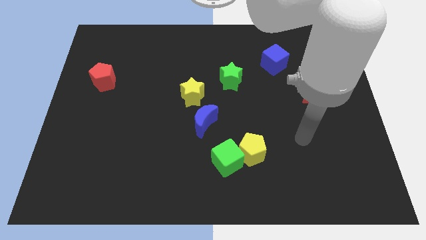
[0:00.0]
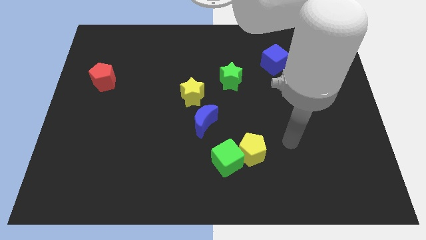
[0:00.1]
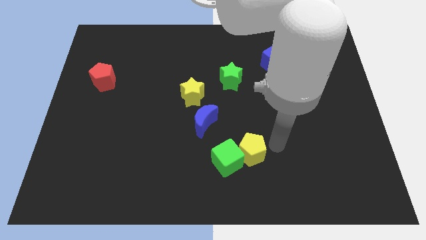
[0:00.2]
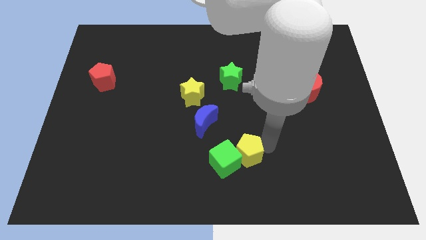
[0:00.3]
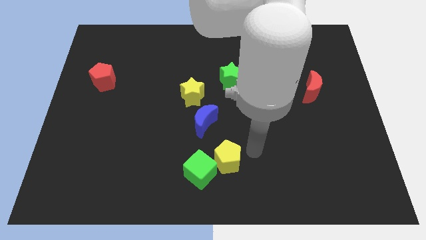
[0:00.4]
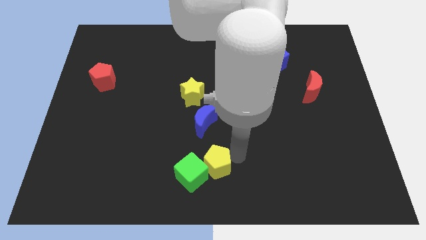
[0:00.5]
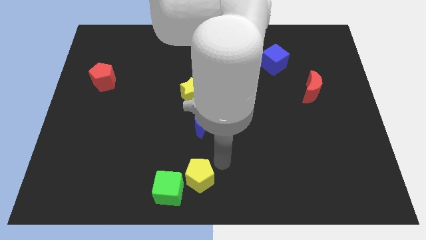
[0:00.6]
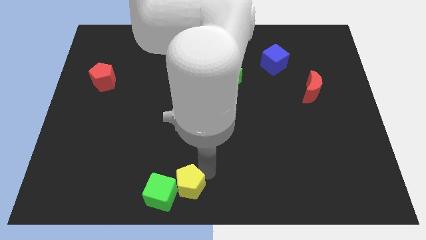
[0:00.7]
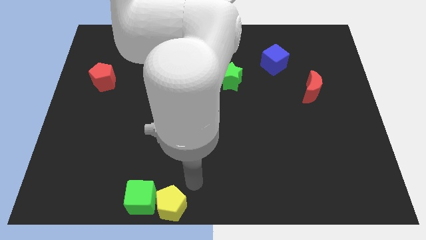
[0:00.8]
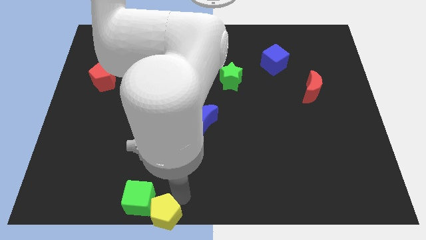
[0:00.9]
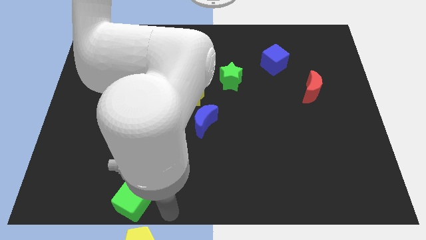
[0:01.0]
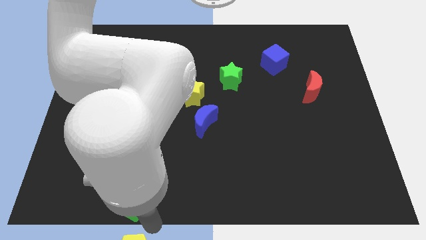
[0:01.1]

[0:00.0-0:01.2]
pull the green cube apart from the yellow pentagon

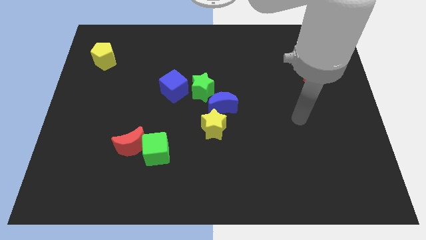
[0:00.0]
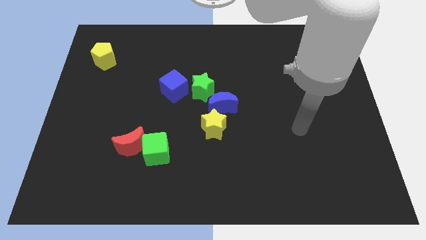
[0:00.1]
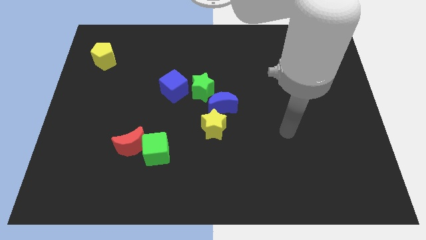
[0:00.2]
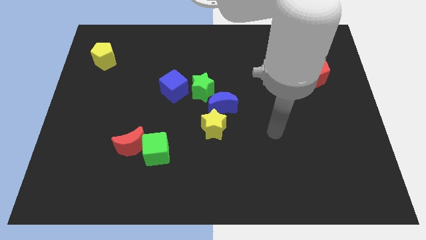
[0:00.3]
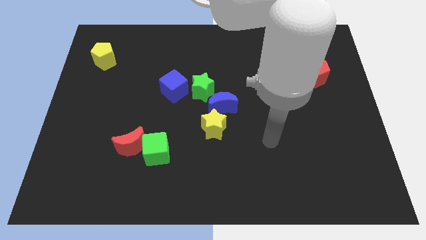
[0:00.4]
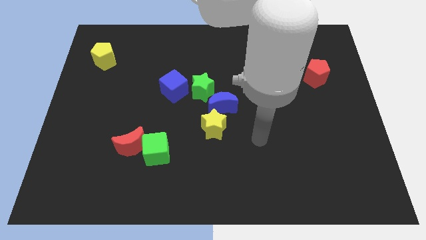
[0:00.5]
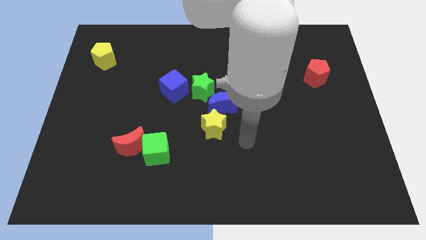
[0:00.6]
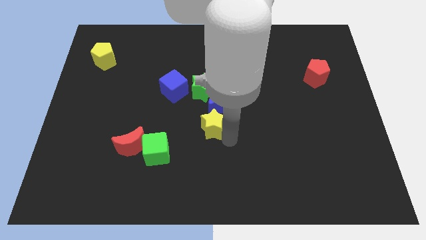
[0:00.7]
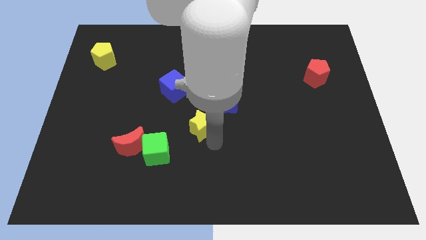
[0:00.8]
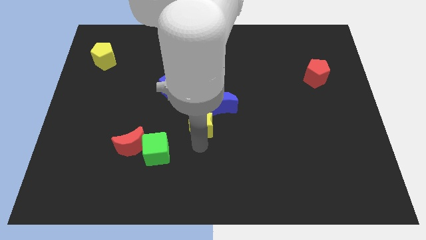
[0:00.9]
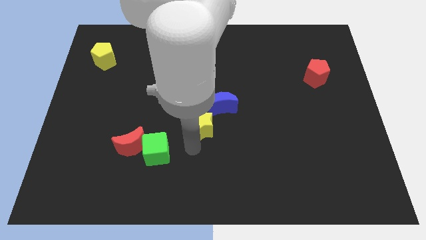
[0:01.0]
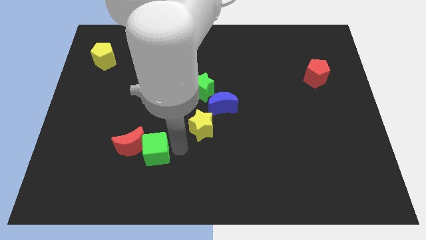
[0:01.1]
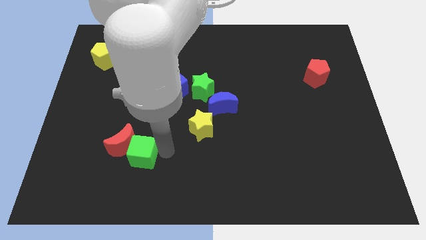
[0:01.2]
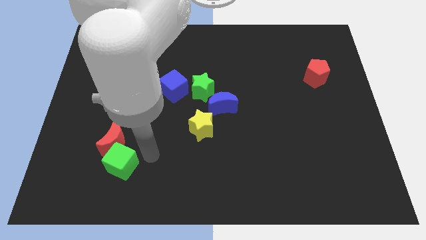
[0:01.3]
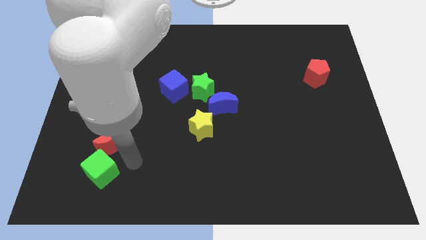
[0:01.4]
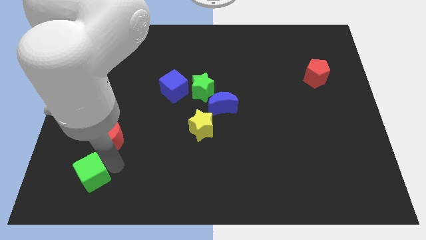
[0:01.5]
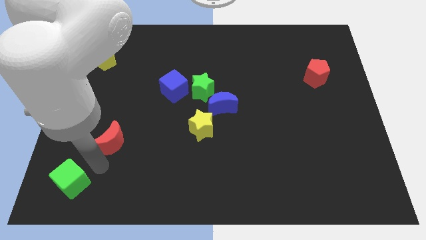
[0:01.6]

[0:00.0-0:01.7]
pull the red moon apart from the green cube

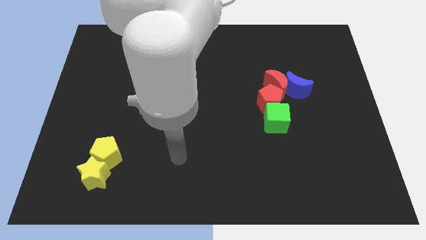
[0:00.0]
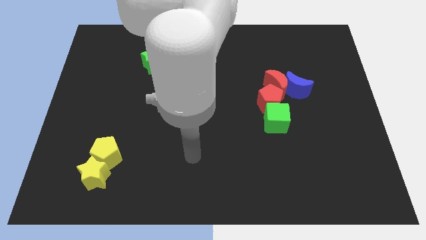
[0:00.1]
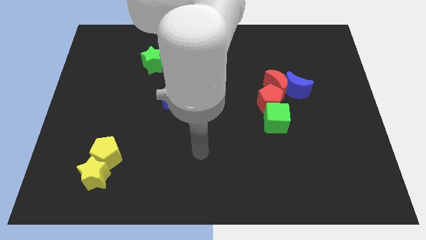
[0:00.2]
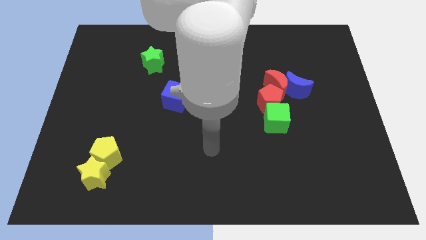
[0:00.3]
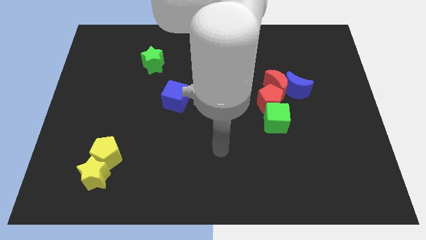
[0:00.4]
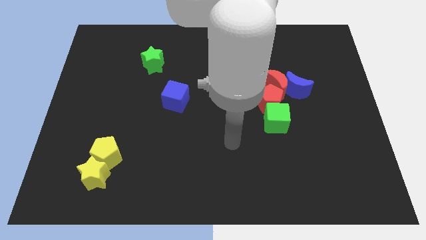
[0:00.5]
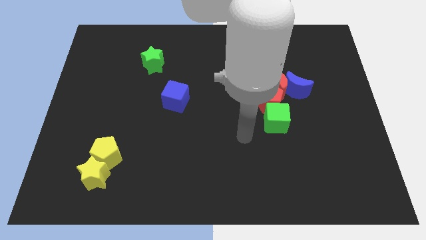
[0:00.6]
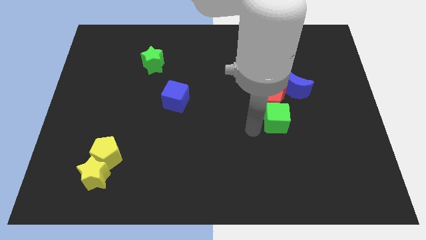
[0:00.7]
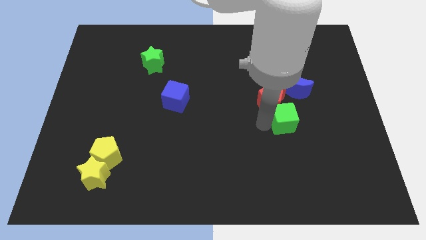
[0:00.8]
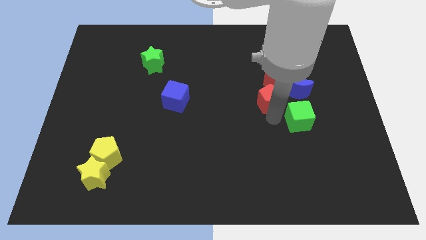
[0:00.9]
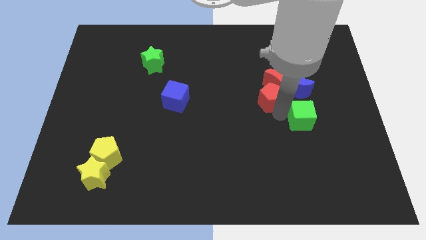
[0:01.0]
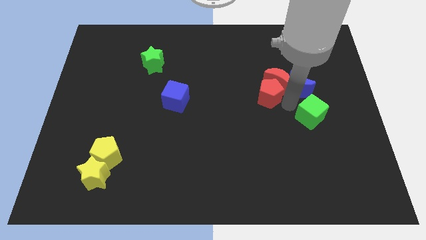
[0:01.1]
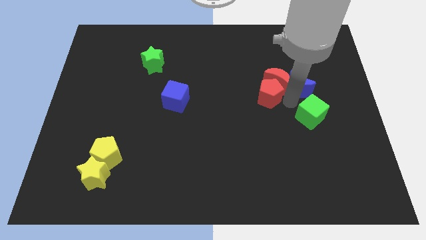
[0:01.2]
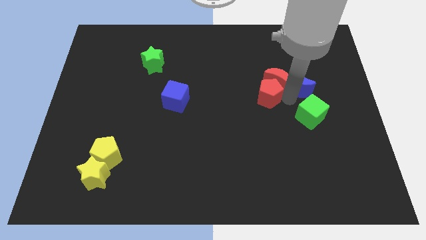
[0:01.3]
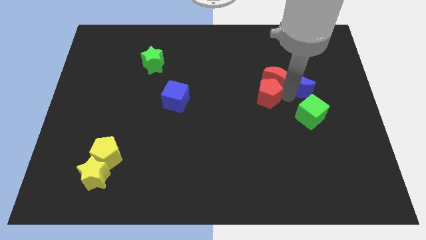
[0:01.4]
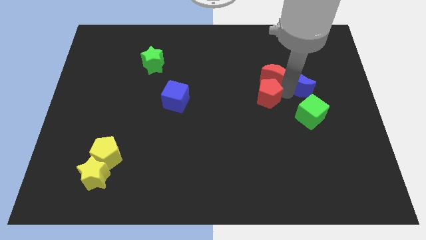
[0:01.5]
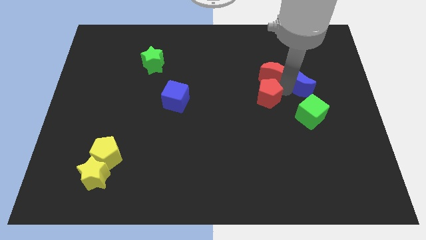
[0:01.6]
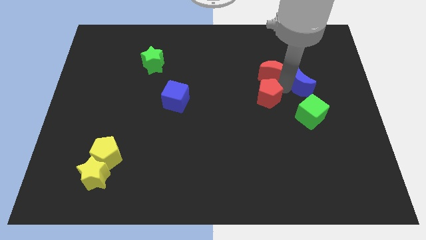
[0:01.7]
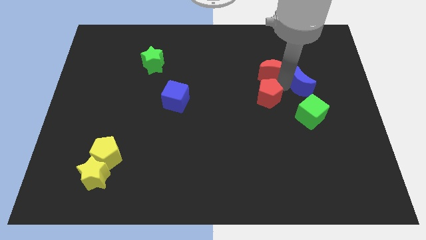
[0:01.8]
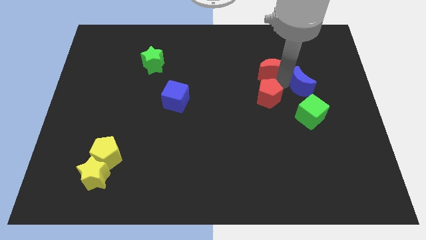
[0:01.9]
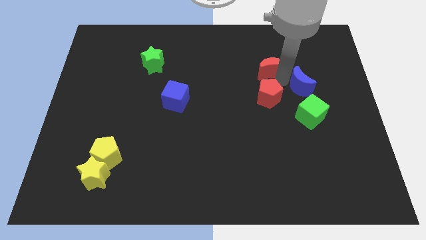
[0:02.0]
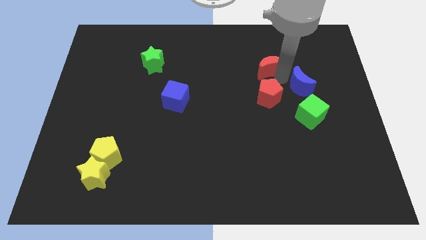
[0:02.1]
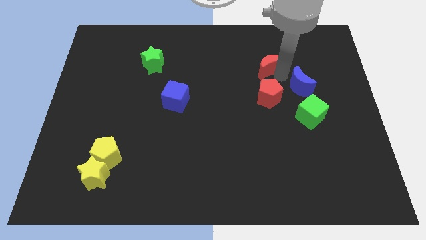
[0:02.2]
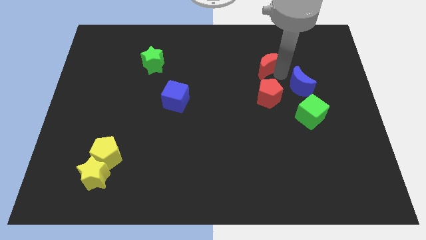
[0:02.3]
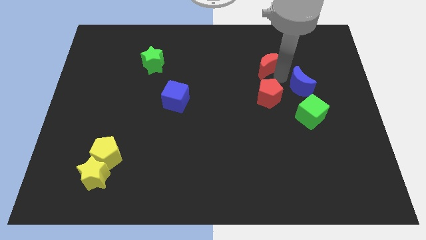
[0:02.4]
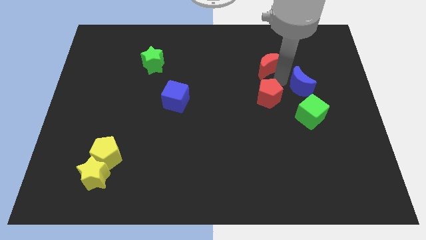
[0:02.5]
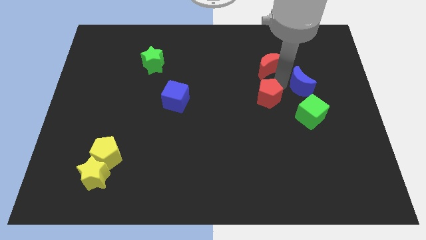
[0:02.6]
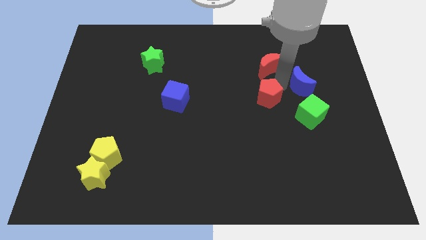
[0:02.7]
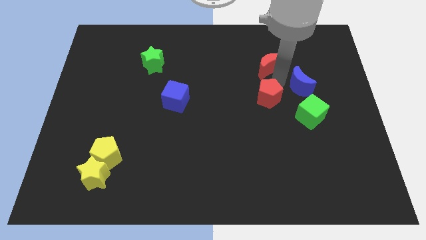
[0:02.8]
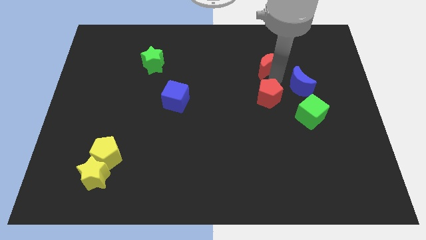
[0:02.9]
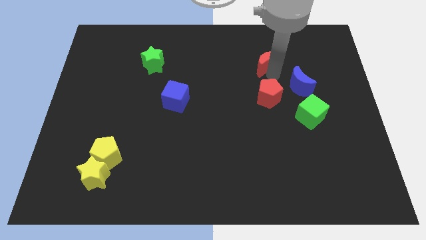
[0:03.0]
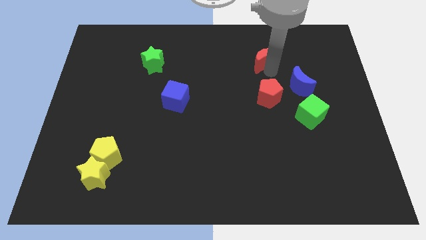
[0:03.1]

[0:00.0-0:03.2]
separate the red moon from the blue moon and red pentagon

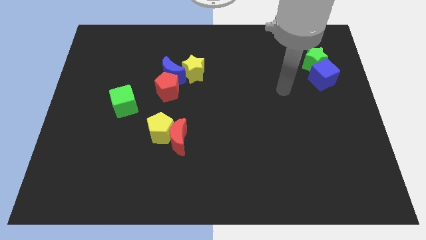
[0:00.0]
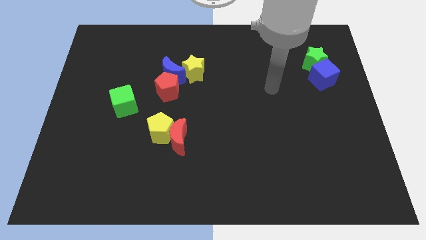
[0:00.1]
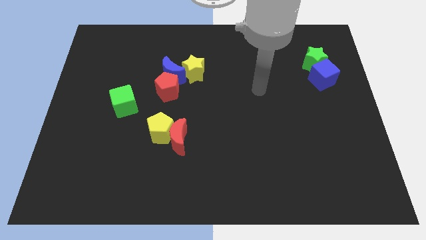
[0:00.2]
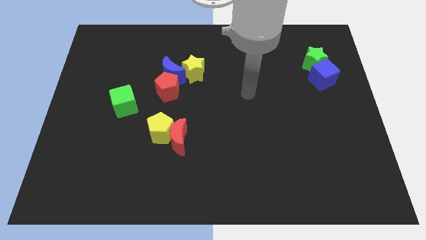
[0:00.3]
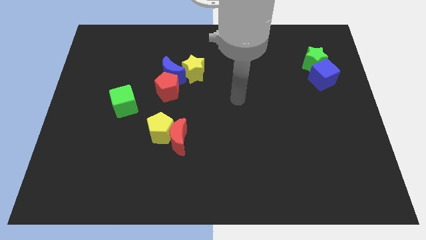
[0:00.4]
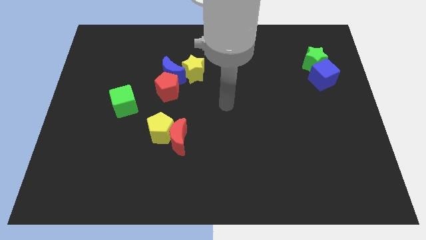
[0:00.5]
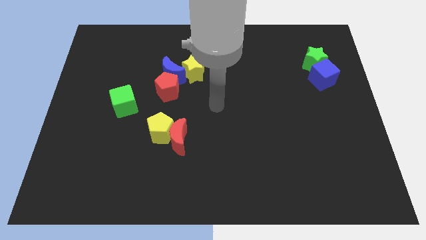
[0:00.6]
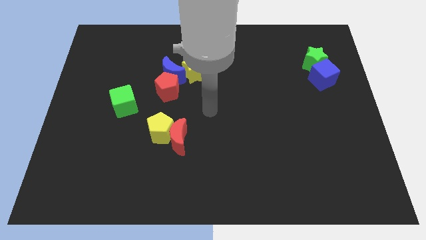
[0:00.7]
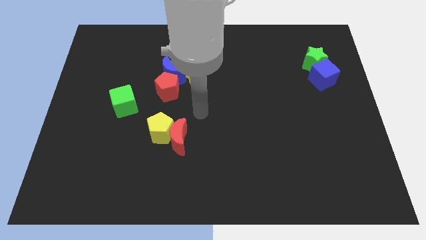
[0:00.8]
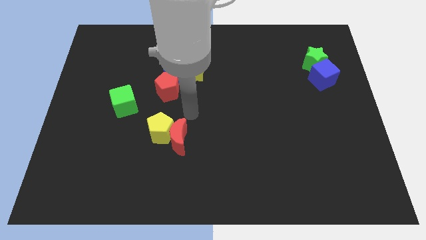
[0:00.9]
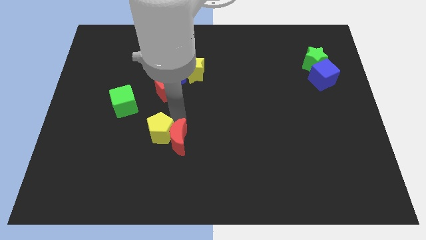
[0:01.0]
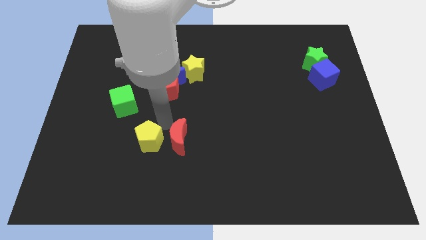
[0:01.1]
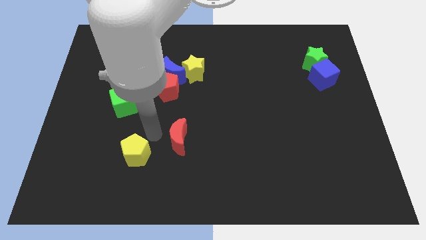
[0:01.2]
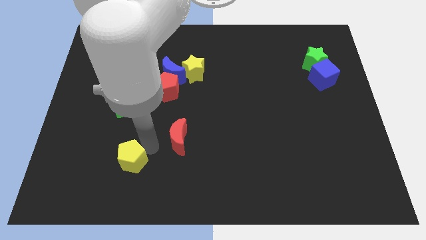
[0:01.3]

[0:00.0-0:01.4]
separate the red moon from the yellow pentagon

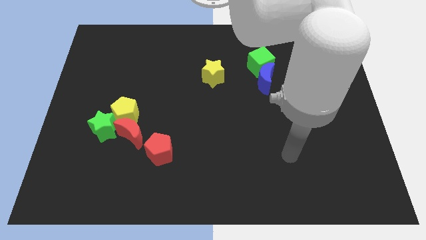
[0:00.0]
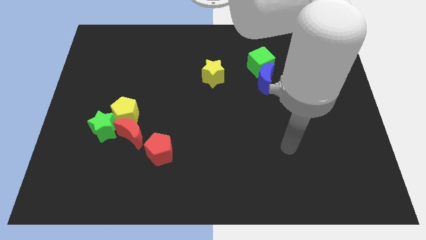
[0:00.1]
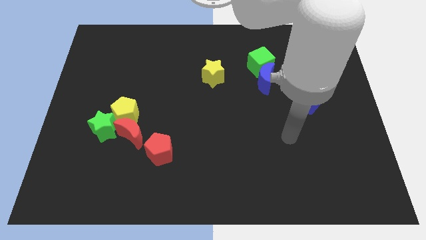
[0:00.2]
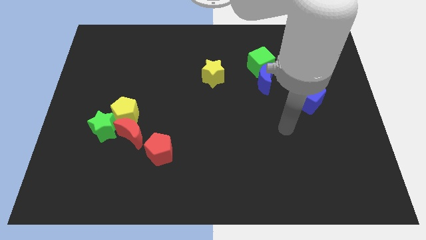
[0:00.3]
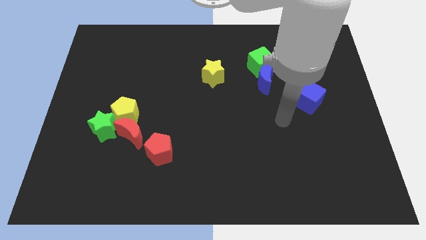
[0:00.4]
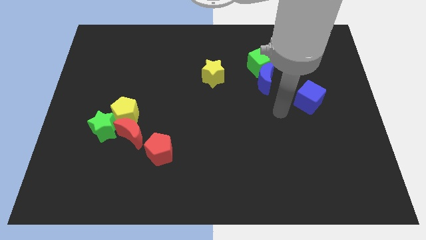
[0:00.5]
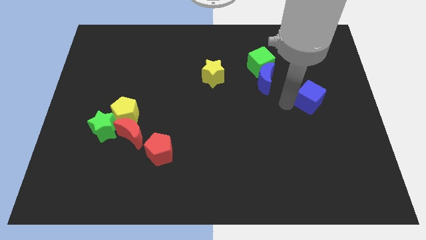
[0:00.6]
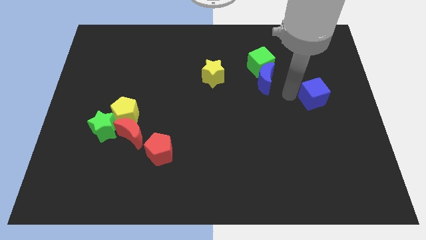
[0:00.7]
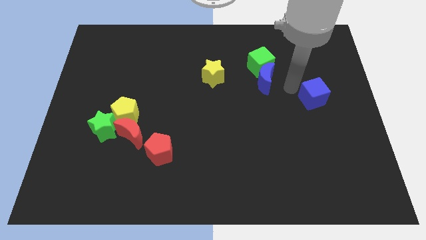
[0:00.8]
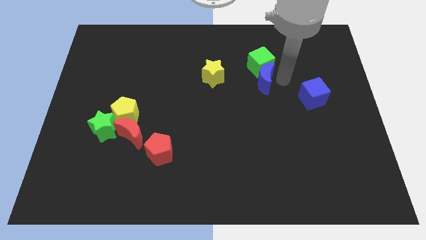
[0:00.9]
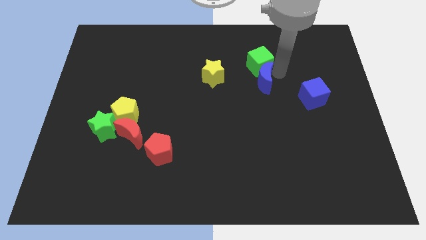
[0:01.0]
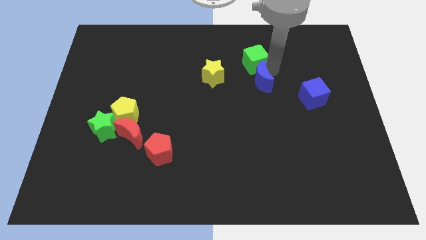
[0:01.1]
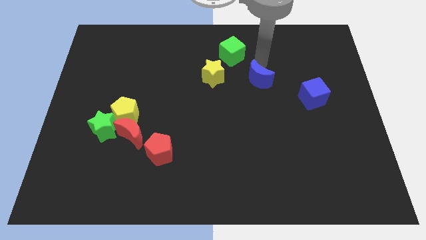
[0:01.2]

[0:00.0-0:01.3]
move the blue moon away from the green cube

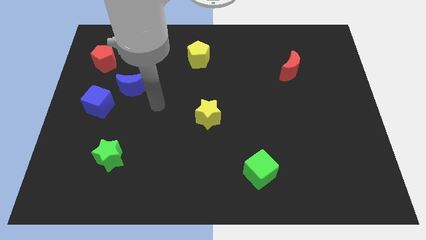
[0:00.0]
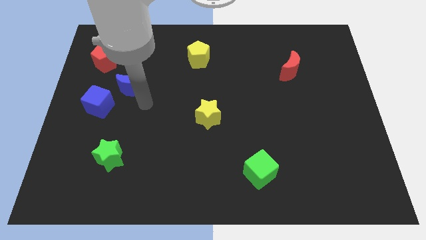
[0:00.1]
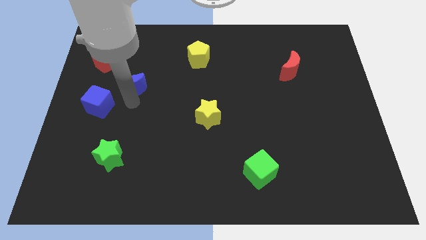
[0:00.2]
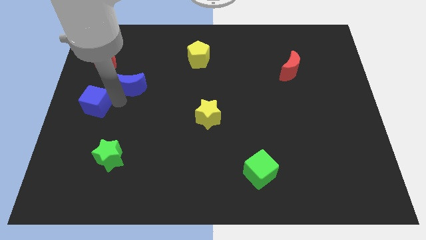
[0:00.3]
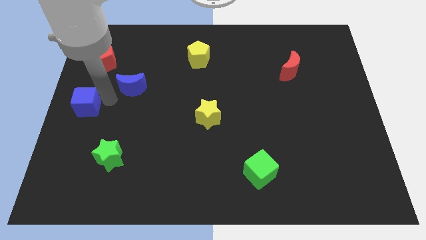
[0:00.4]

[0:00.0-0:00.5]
pull the blue moon apart from the blue cube
